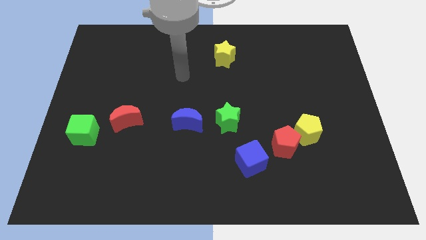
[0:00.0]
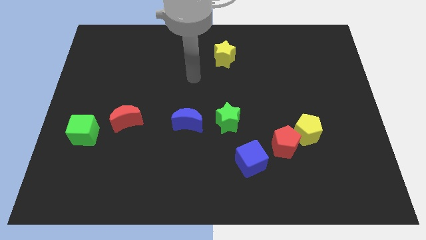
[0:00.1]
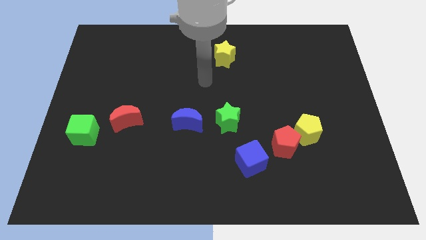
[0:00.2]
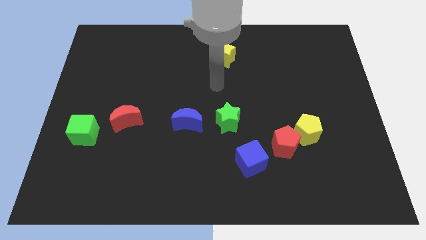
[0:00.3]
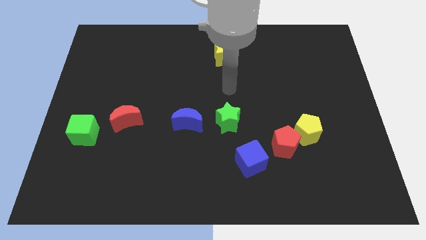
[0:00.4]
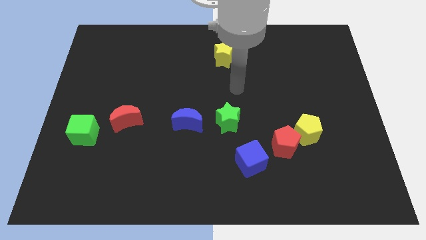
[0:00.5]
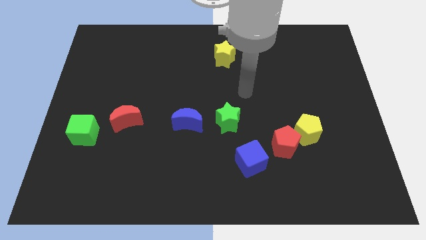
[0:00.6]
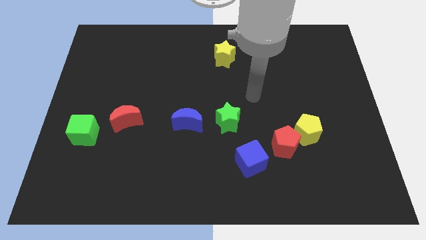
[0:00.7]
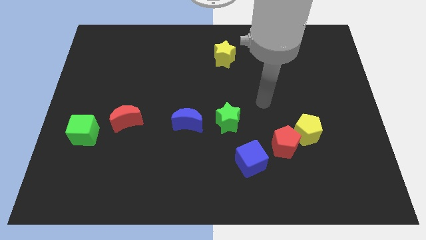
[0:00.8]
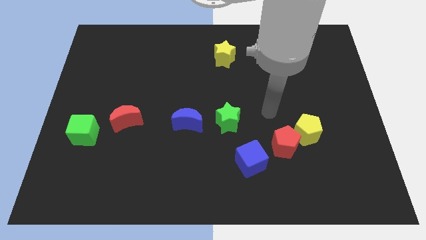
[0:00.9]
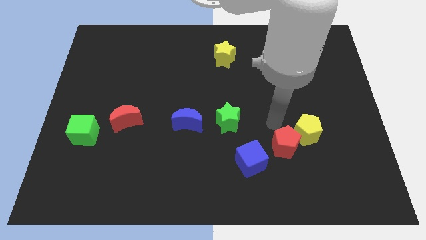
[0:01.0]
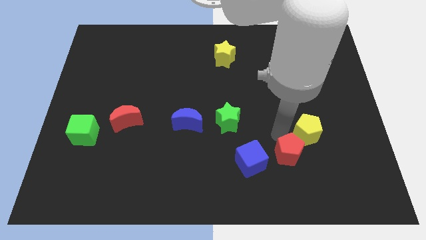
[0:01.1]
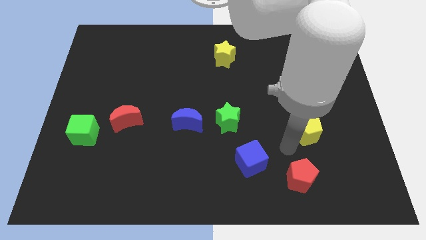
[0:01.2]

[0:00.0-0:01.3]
pull the yellow pentagon apart from the red pentagon

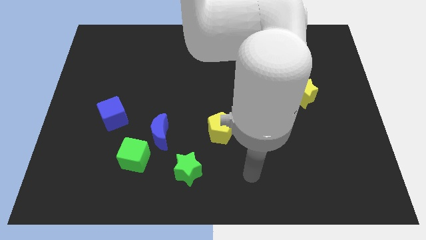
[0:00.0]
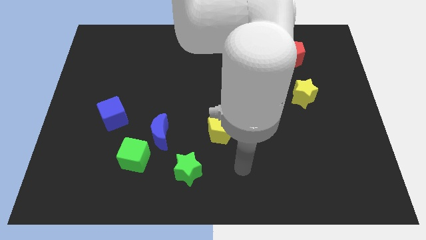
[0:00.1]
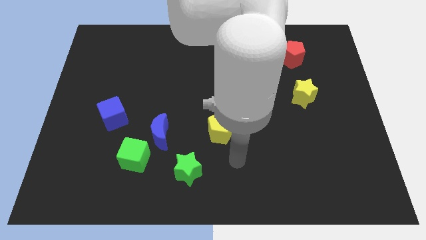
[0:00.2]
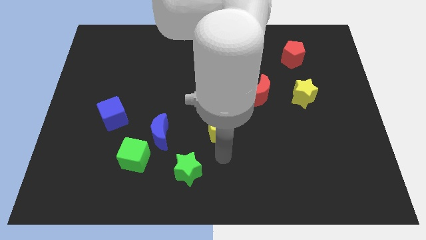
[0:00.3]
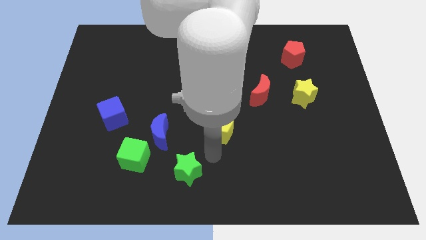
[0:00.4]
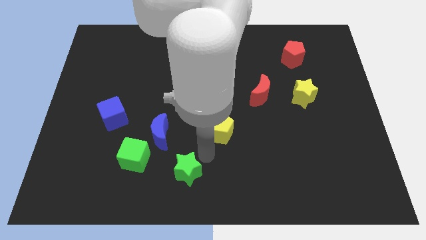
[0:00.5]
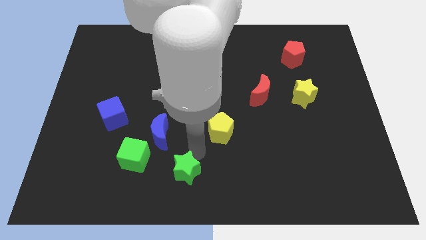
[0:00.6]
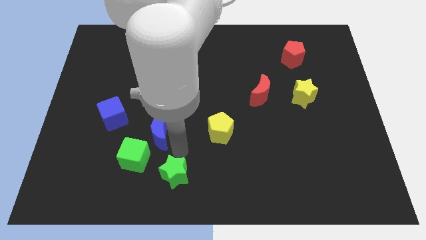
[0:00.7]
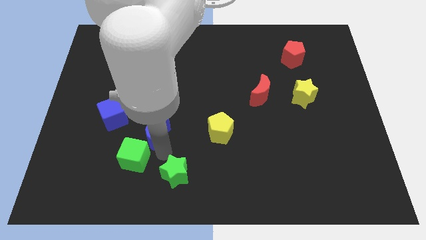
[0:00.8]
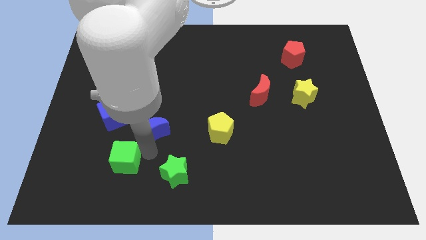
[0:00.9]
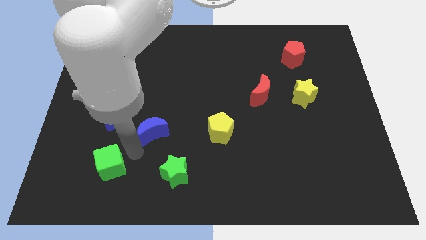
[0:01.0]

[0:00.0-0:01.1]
separate the blue moon from the green cube

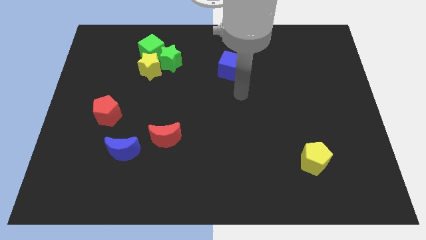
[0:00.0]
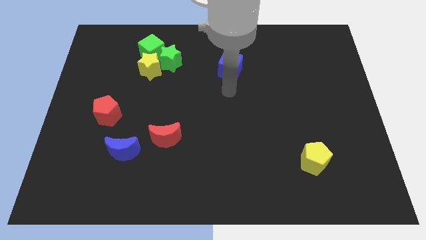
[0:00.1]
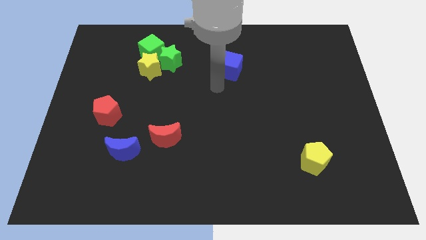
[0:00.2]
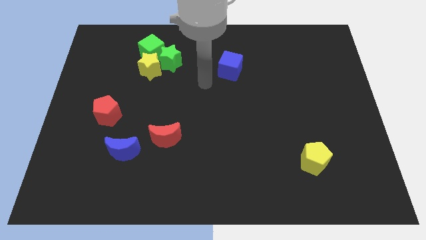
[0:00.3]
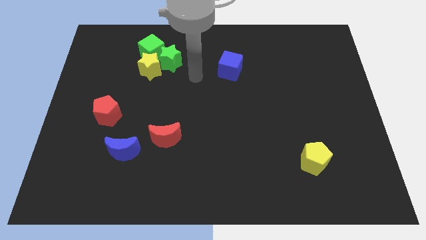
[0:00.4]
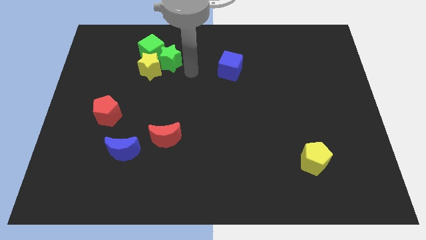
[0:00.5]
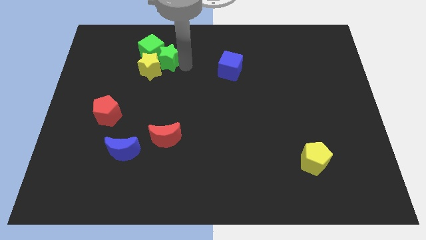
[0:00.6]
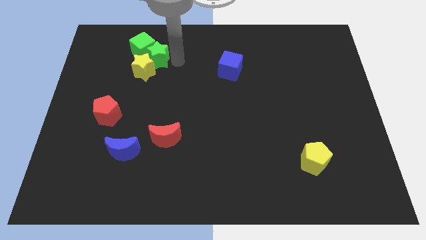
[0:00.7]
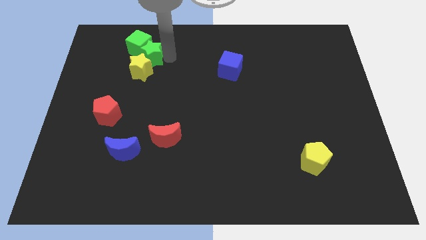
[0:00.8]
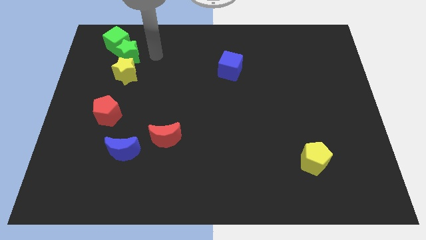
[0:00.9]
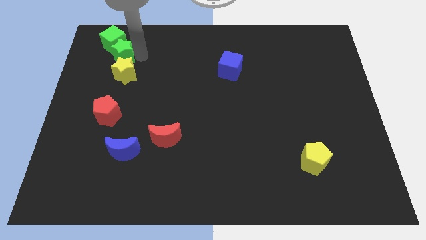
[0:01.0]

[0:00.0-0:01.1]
separate the yellow star from the green star and green cube

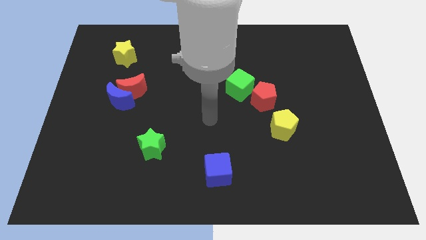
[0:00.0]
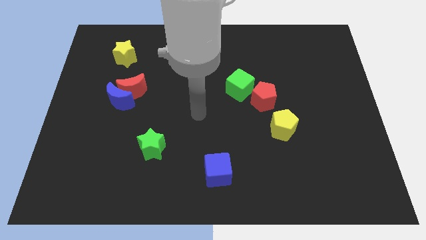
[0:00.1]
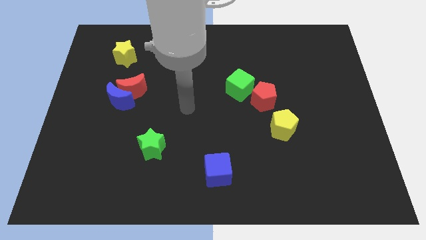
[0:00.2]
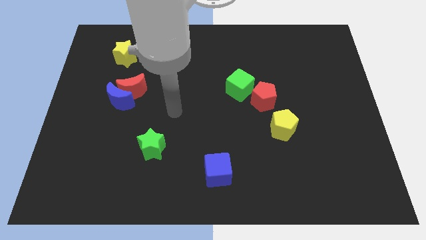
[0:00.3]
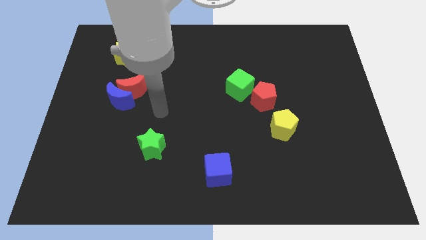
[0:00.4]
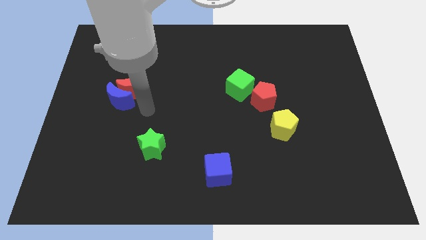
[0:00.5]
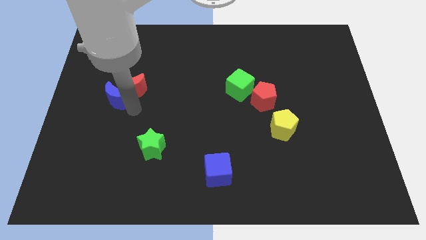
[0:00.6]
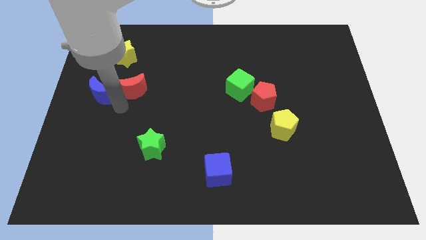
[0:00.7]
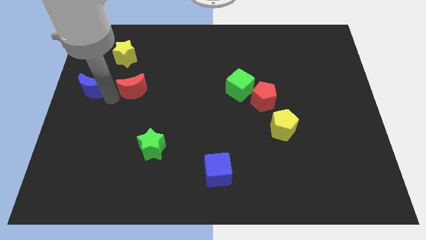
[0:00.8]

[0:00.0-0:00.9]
separate the red moon from the blue moon

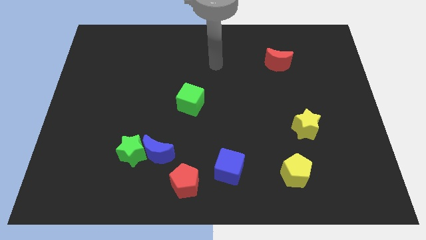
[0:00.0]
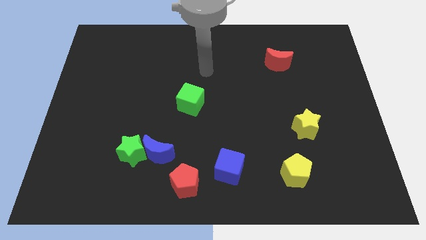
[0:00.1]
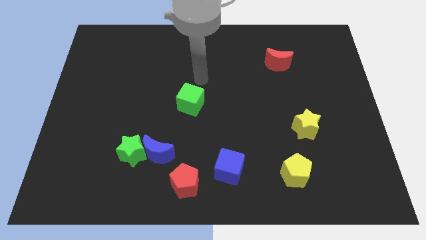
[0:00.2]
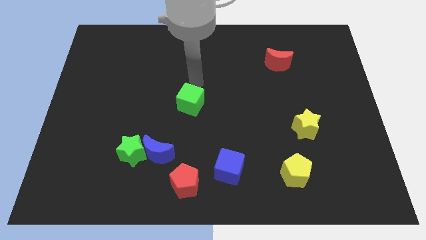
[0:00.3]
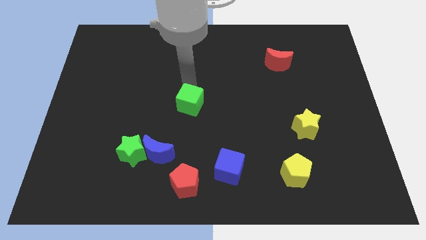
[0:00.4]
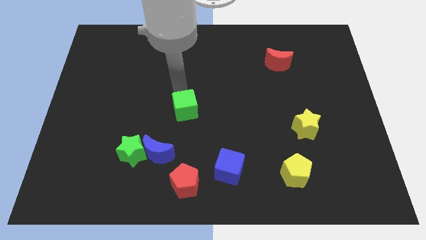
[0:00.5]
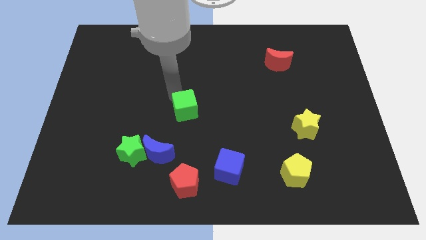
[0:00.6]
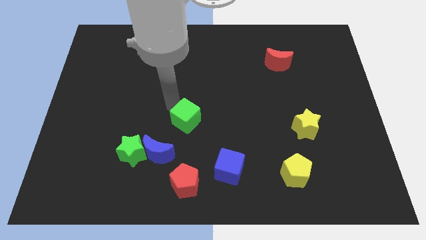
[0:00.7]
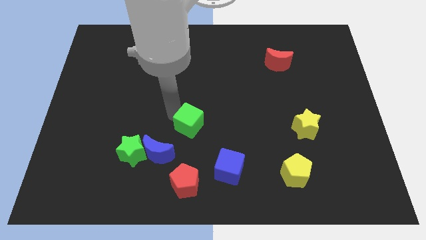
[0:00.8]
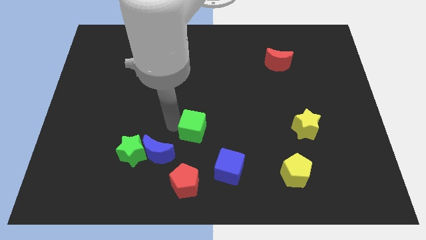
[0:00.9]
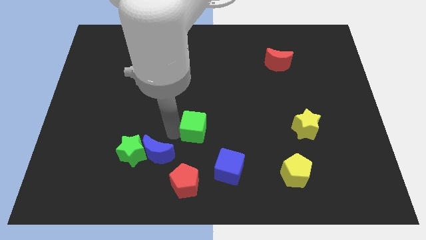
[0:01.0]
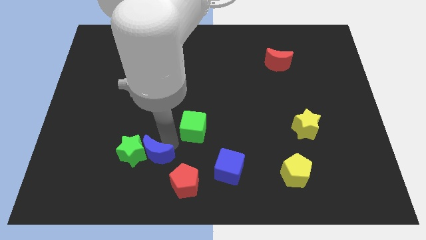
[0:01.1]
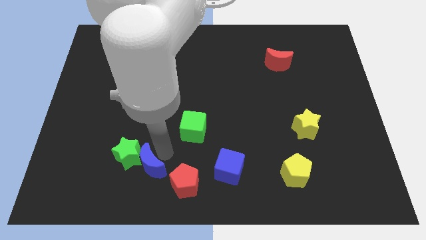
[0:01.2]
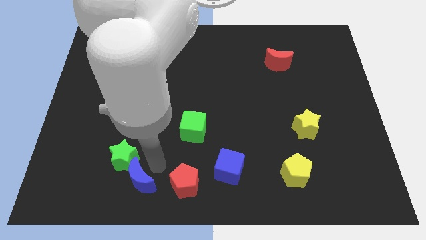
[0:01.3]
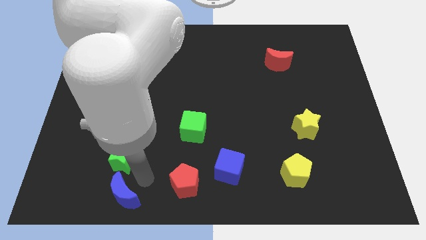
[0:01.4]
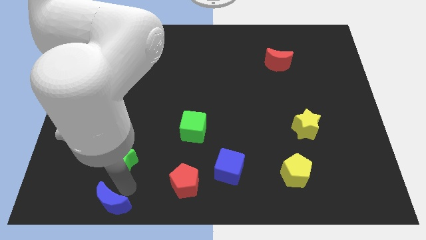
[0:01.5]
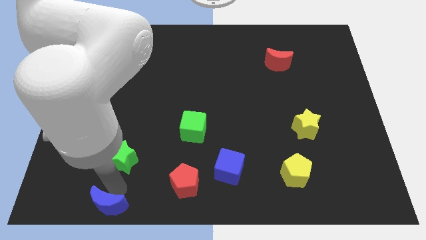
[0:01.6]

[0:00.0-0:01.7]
move the green star away from the blue moon

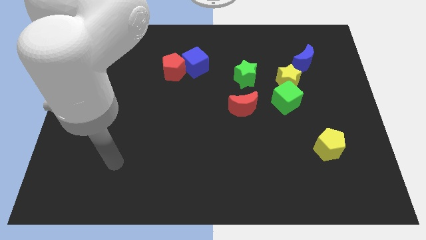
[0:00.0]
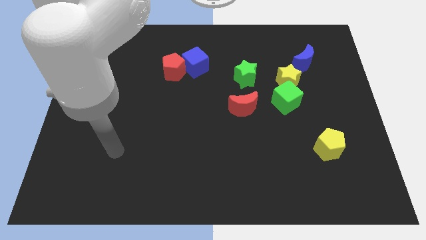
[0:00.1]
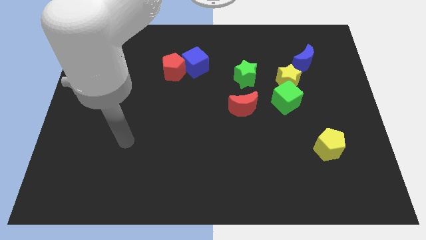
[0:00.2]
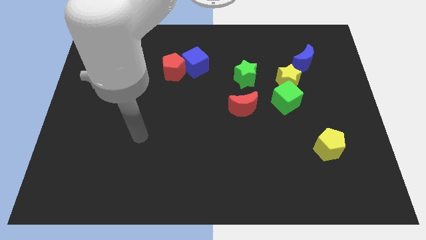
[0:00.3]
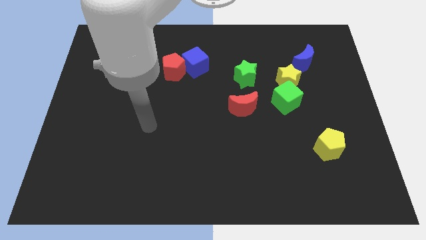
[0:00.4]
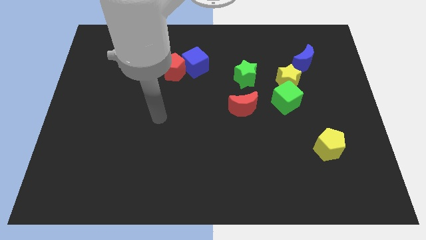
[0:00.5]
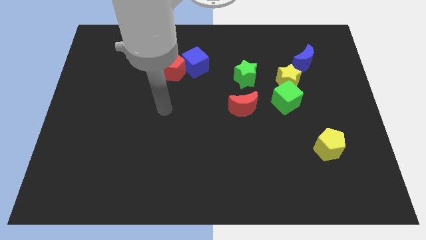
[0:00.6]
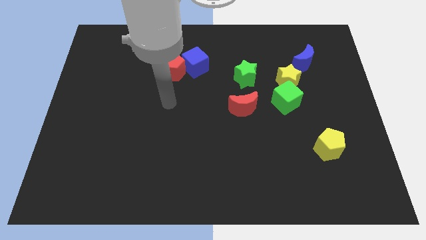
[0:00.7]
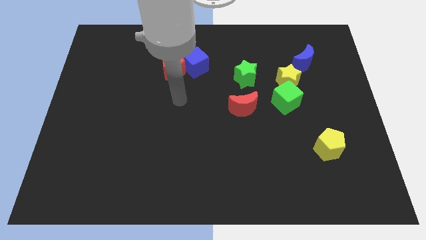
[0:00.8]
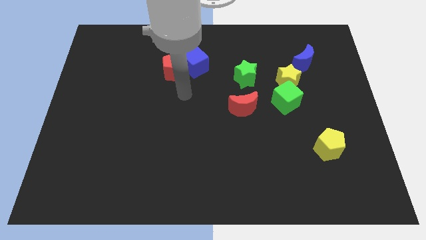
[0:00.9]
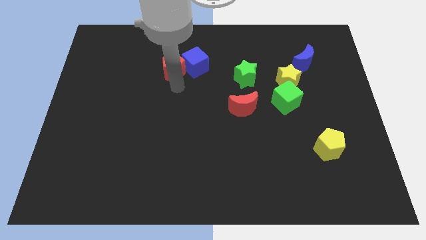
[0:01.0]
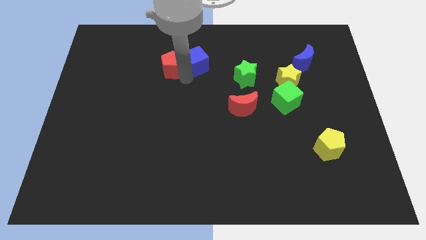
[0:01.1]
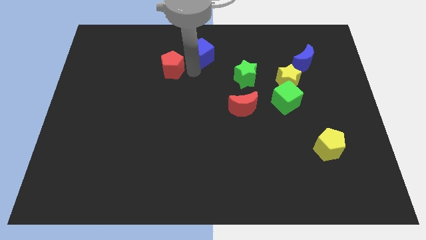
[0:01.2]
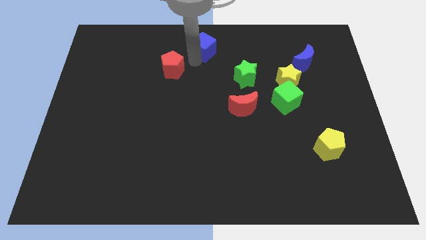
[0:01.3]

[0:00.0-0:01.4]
move the red pentagon away from the blue cube

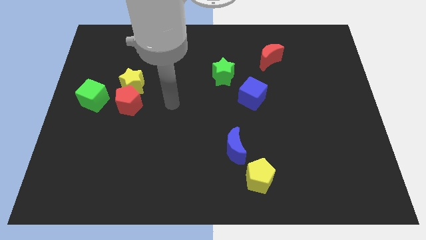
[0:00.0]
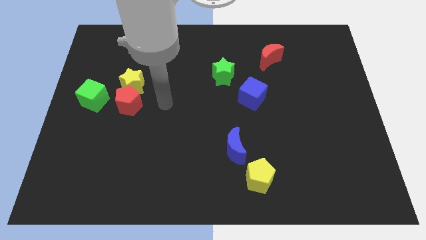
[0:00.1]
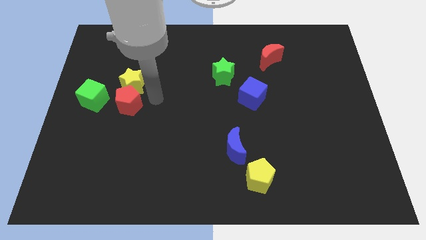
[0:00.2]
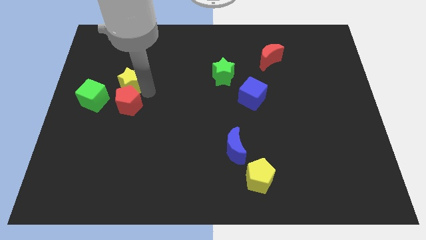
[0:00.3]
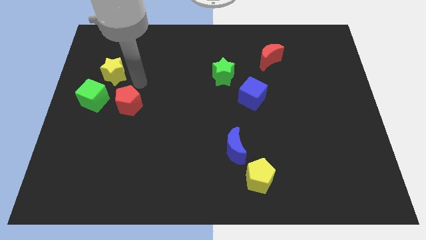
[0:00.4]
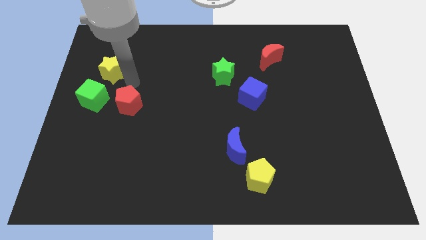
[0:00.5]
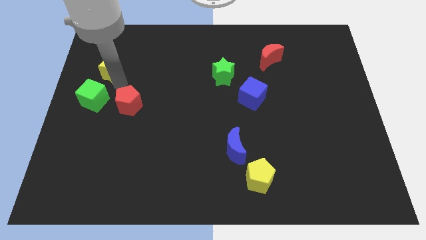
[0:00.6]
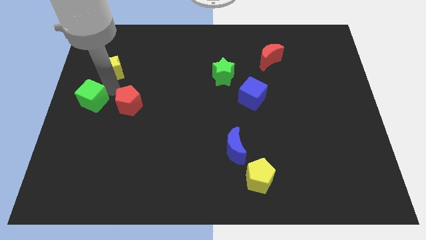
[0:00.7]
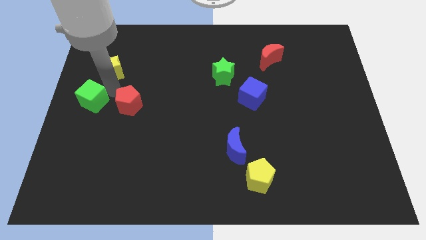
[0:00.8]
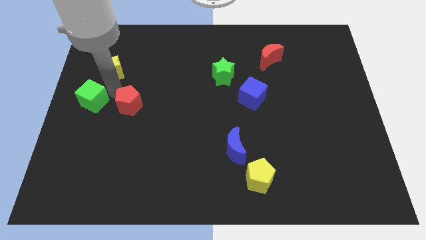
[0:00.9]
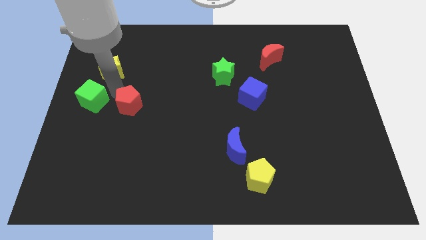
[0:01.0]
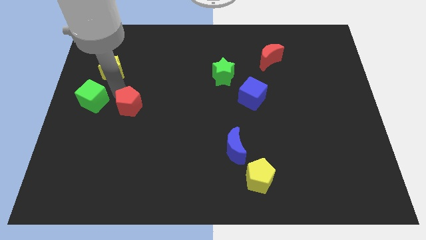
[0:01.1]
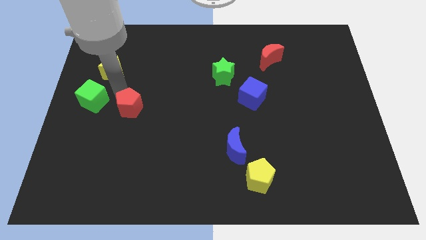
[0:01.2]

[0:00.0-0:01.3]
pull the red pentagon apart from the yellow star and green cube

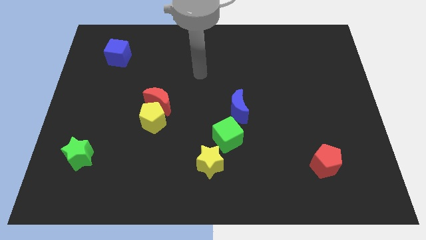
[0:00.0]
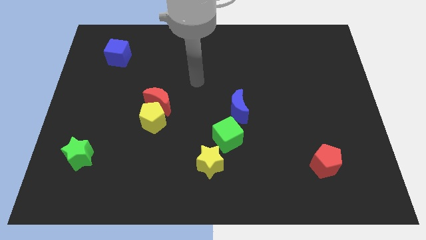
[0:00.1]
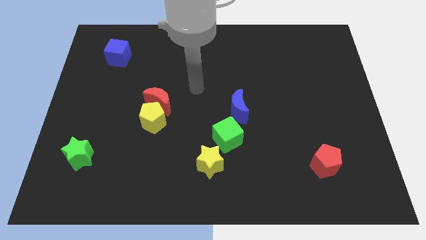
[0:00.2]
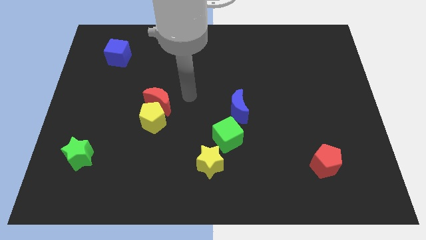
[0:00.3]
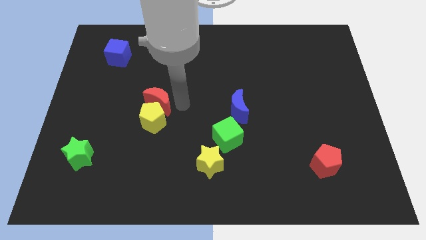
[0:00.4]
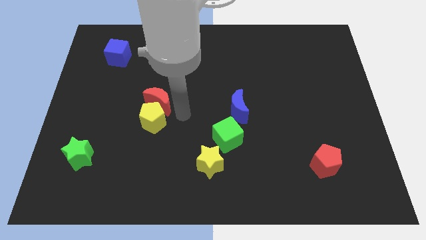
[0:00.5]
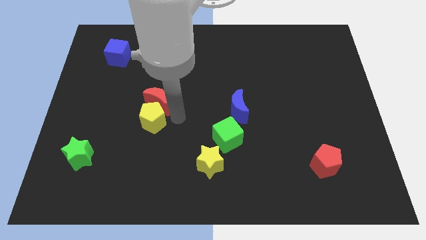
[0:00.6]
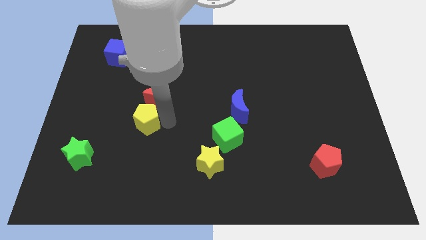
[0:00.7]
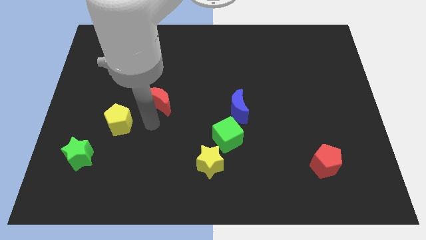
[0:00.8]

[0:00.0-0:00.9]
move the red moon away from the yellow pentagon
